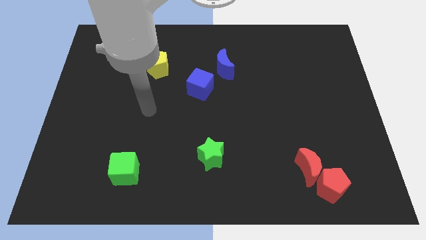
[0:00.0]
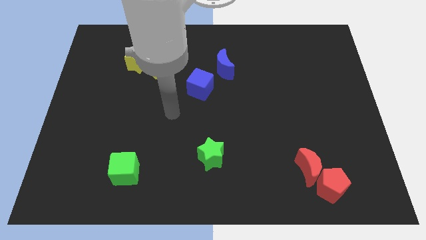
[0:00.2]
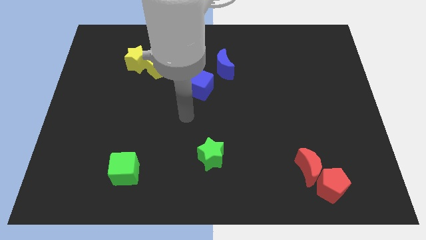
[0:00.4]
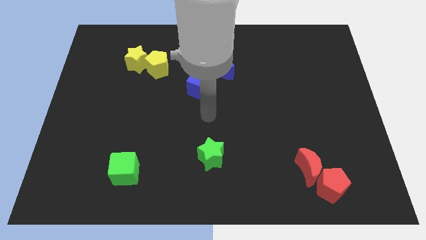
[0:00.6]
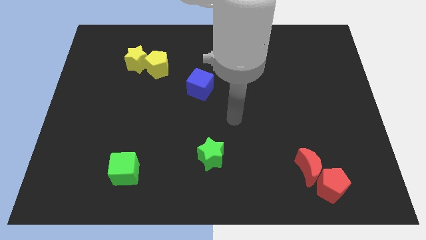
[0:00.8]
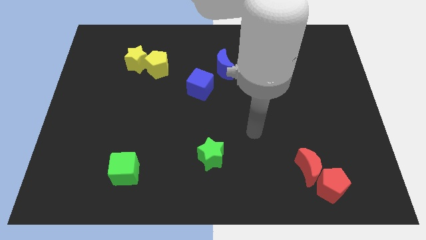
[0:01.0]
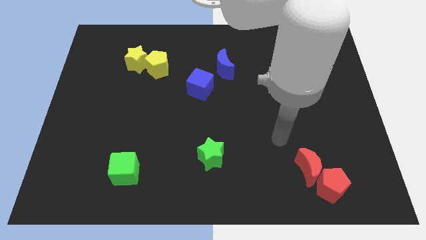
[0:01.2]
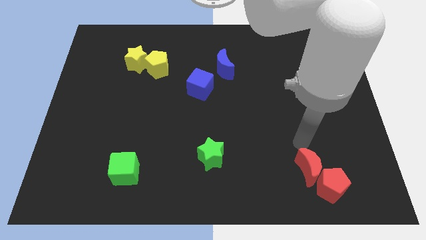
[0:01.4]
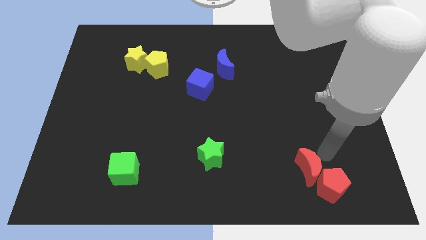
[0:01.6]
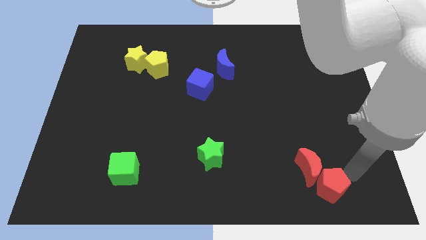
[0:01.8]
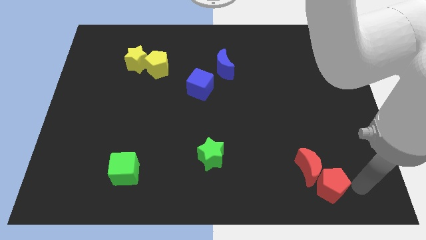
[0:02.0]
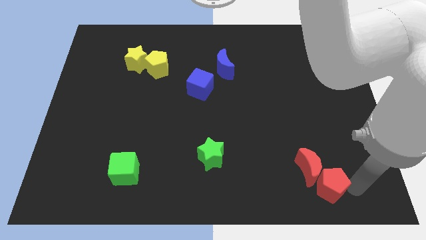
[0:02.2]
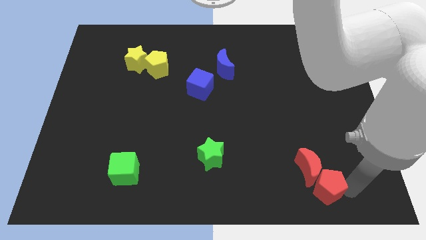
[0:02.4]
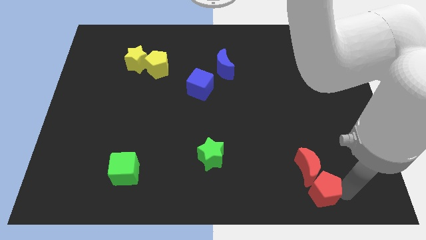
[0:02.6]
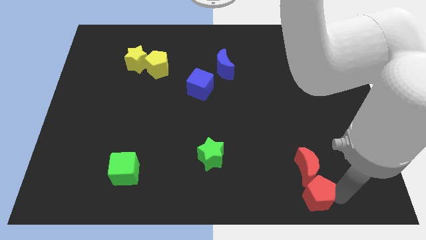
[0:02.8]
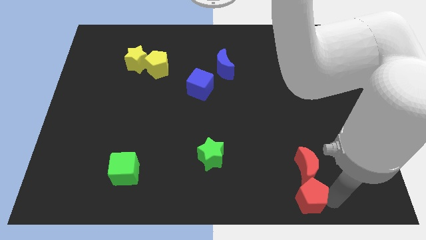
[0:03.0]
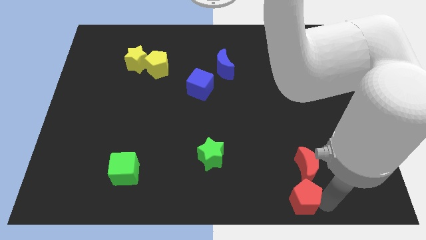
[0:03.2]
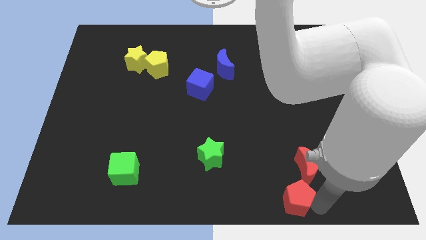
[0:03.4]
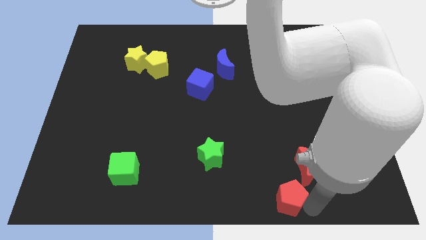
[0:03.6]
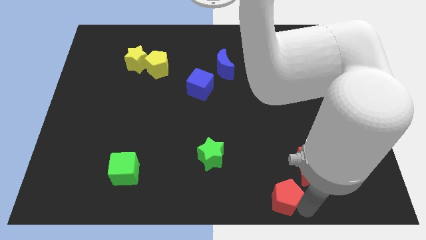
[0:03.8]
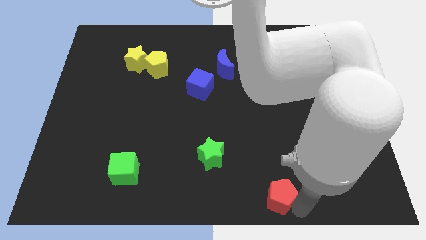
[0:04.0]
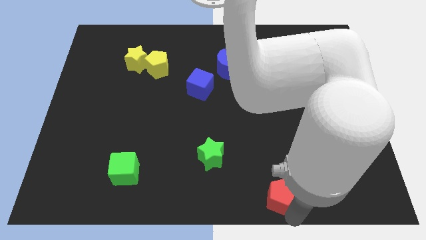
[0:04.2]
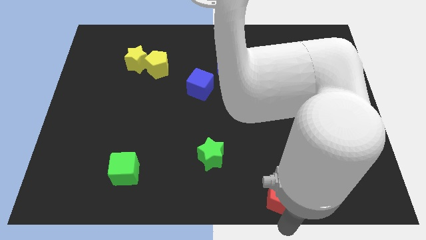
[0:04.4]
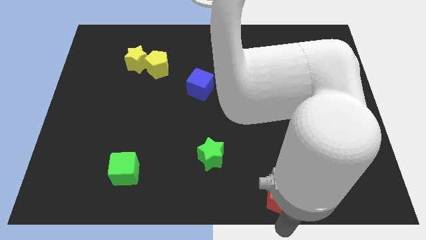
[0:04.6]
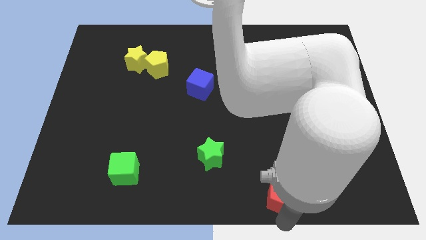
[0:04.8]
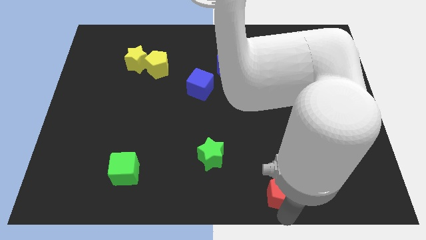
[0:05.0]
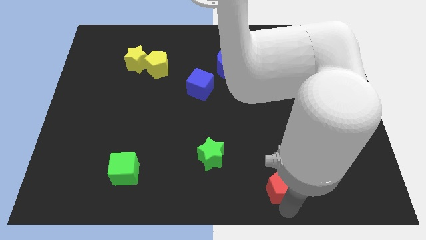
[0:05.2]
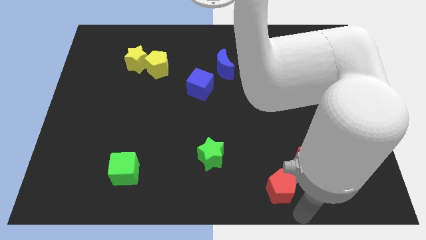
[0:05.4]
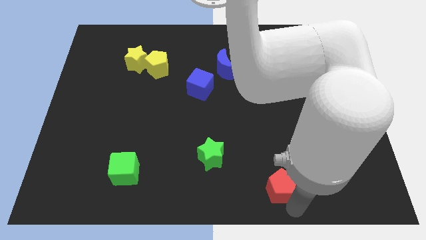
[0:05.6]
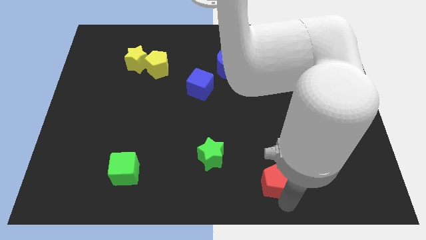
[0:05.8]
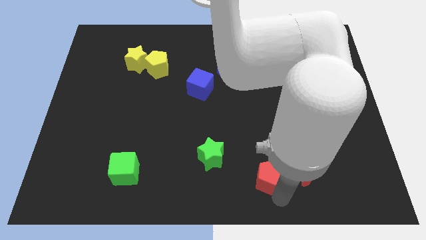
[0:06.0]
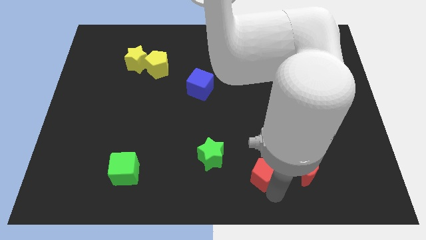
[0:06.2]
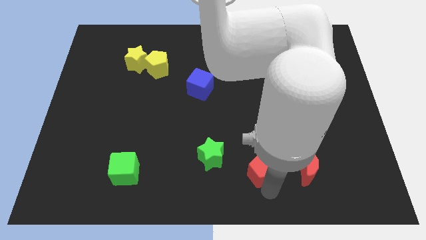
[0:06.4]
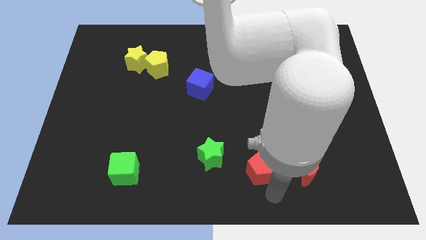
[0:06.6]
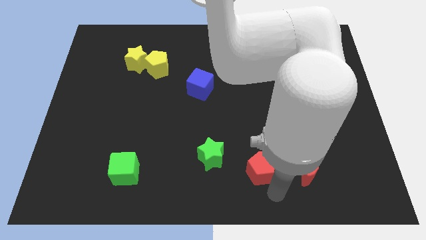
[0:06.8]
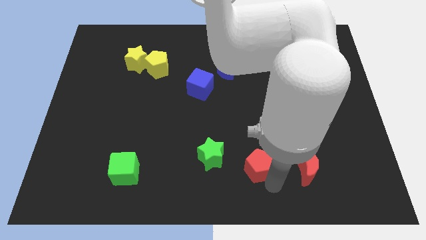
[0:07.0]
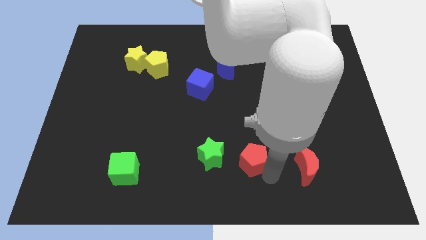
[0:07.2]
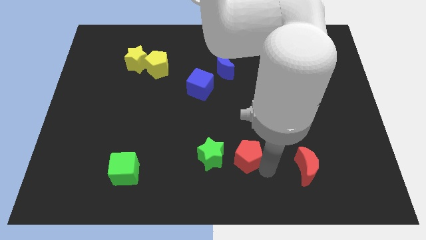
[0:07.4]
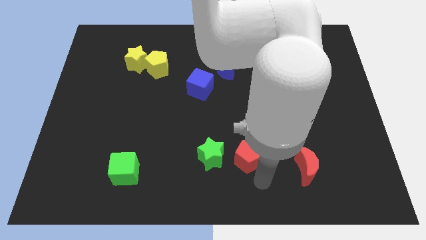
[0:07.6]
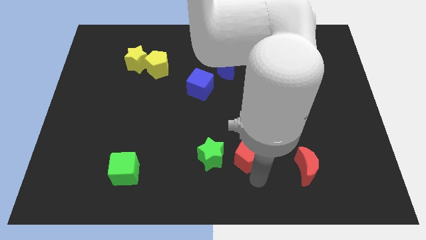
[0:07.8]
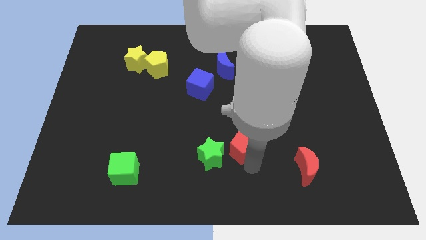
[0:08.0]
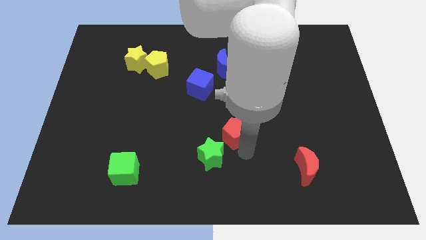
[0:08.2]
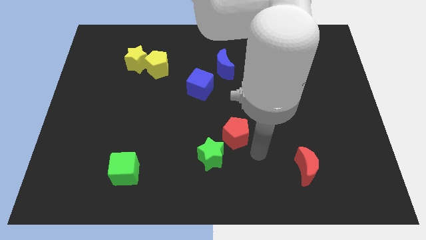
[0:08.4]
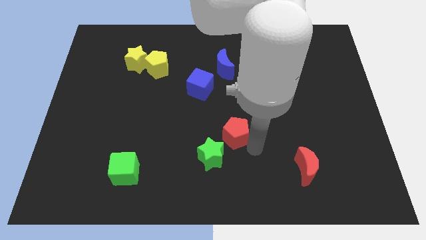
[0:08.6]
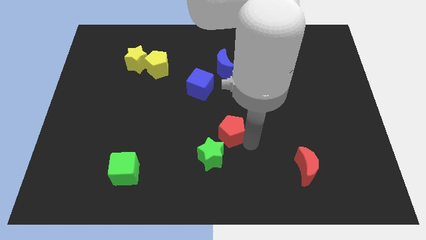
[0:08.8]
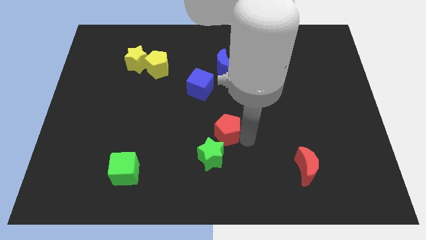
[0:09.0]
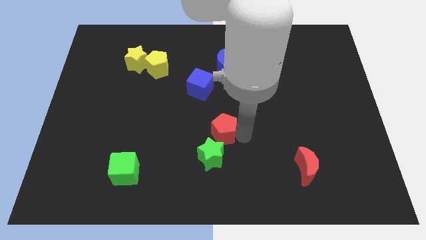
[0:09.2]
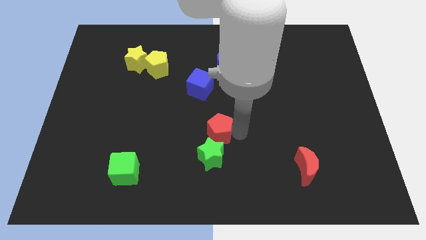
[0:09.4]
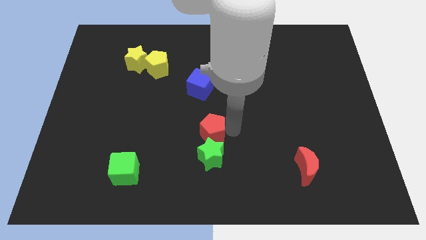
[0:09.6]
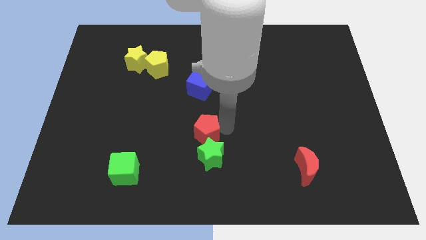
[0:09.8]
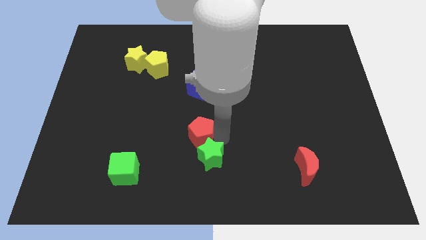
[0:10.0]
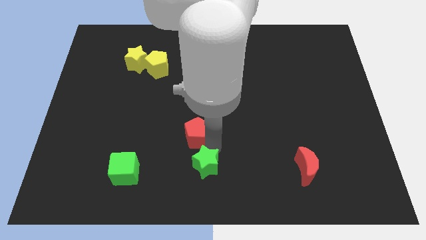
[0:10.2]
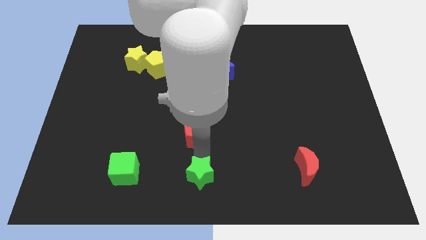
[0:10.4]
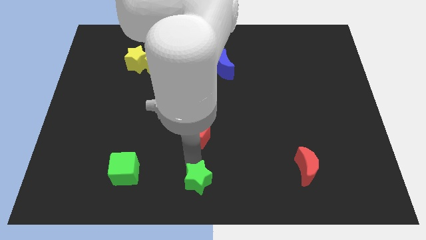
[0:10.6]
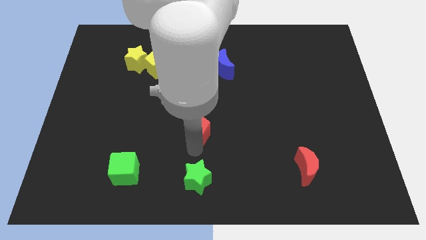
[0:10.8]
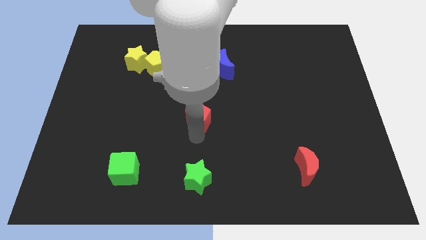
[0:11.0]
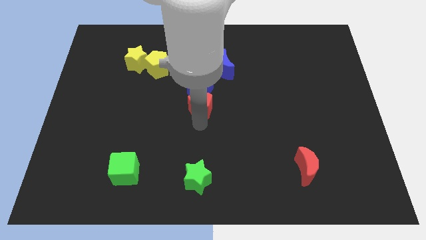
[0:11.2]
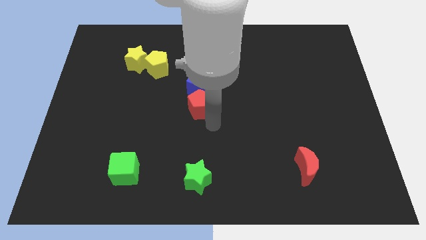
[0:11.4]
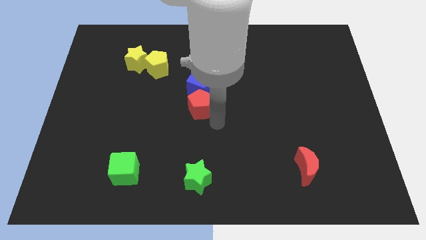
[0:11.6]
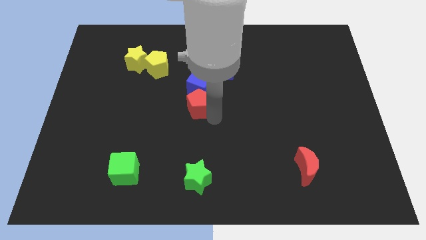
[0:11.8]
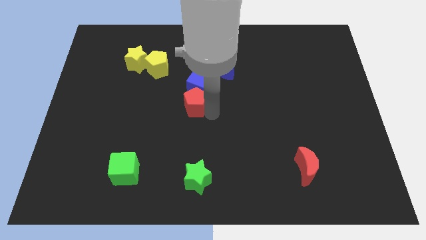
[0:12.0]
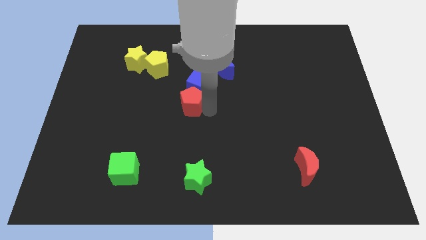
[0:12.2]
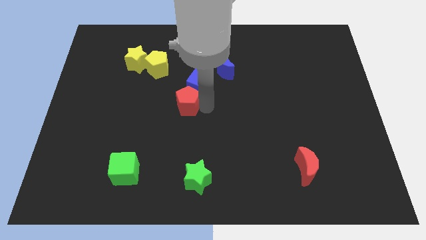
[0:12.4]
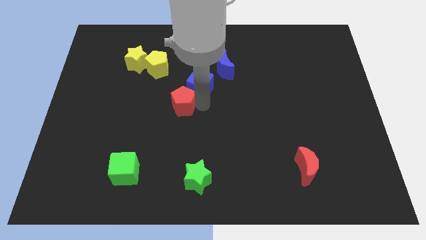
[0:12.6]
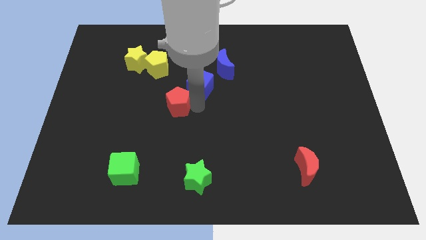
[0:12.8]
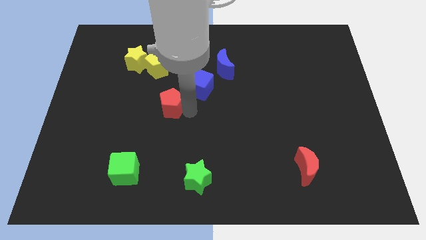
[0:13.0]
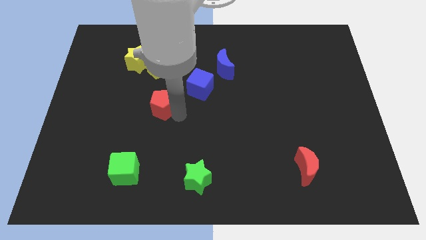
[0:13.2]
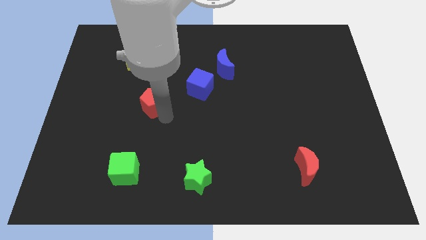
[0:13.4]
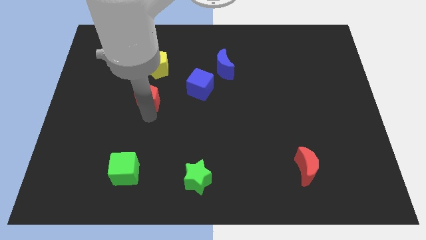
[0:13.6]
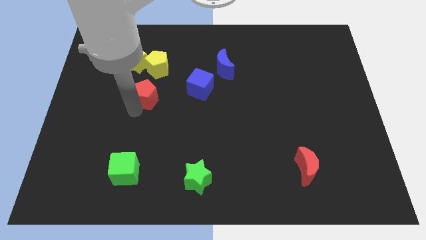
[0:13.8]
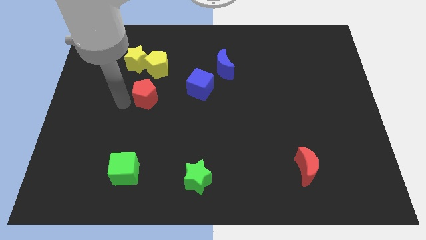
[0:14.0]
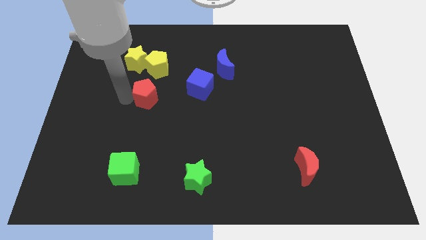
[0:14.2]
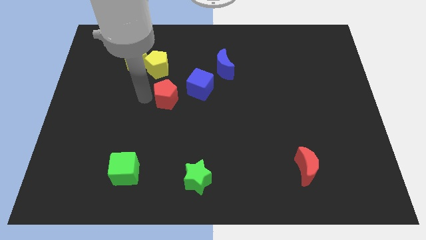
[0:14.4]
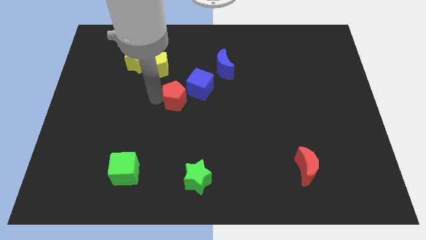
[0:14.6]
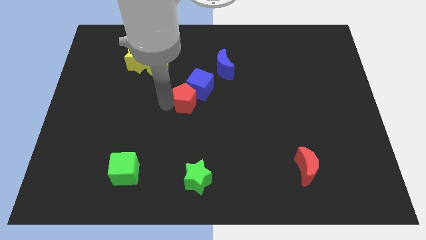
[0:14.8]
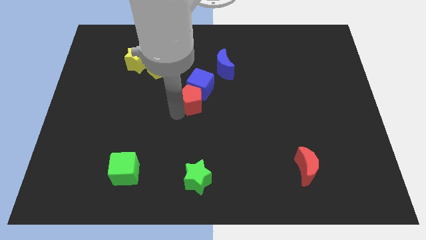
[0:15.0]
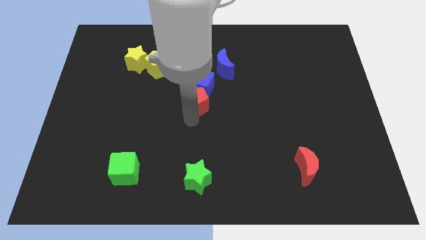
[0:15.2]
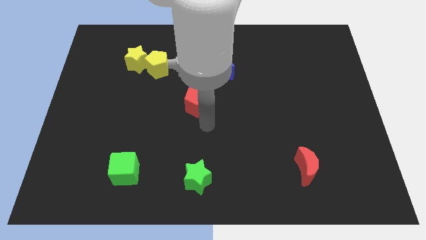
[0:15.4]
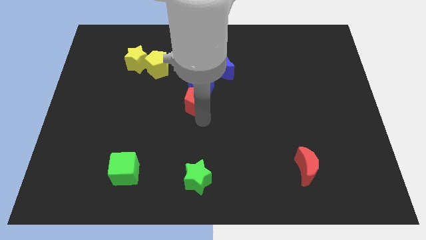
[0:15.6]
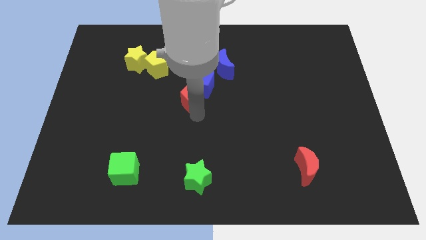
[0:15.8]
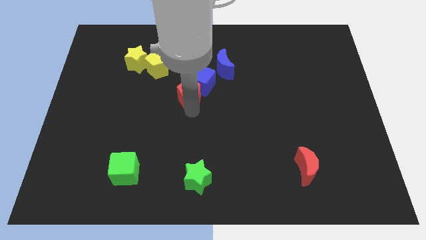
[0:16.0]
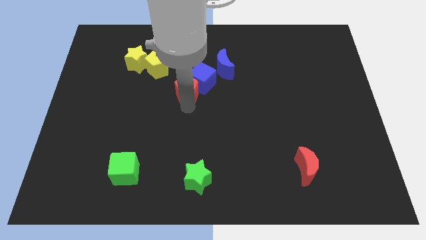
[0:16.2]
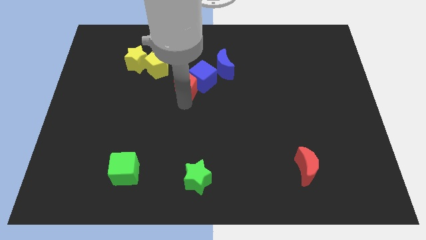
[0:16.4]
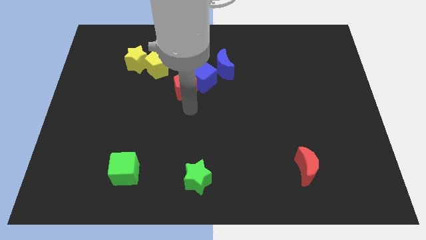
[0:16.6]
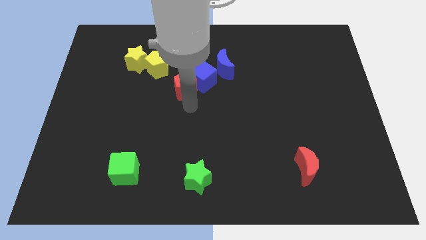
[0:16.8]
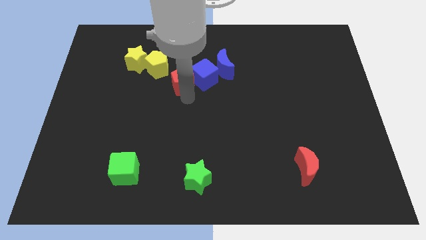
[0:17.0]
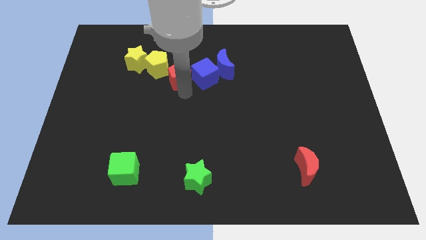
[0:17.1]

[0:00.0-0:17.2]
push the red pentagon to the left side of the blue moon
